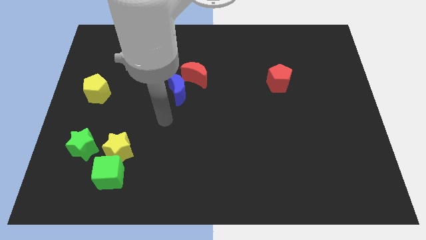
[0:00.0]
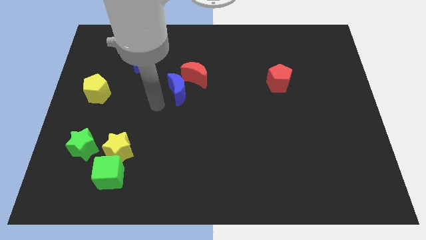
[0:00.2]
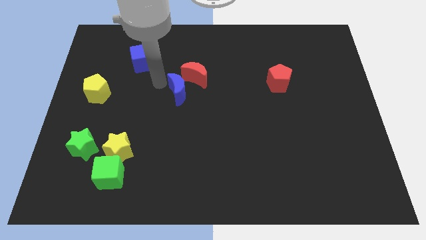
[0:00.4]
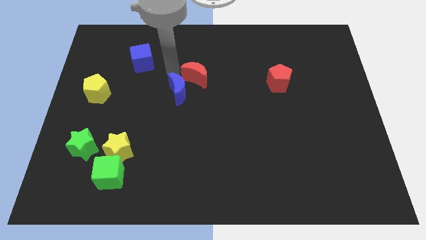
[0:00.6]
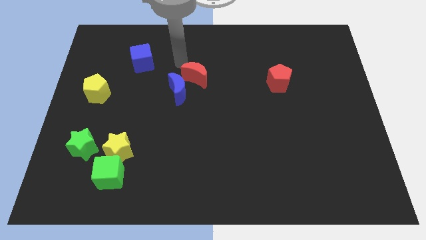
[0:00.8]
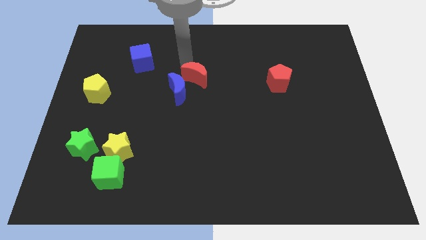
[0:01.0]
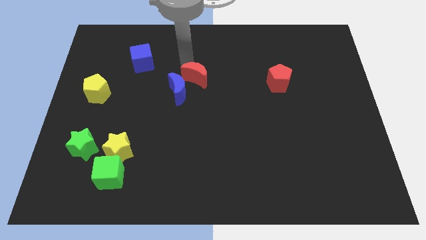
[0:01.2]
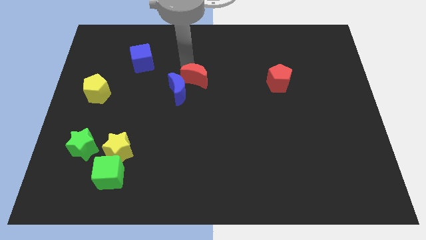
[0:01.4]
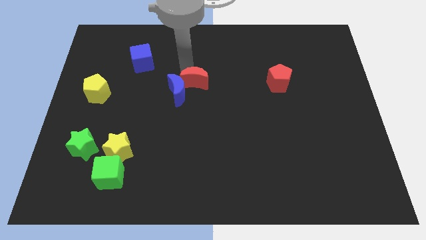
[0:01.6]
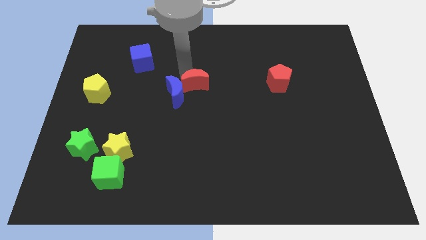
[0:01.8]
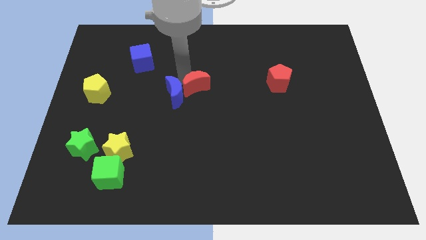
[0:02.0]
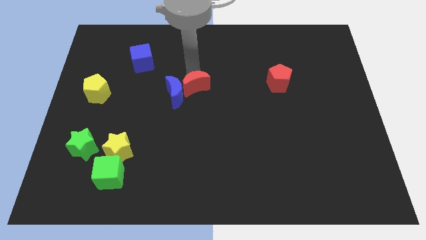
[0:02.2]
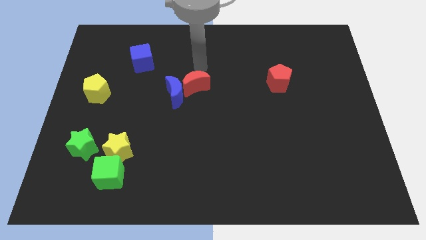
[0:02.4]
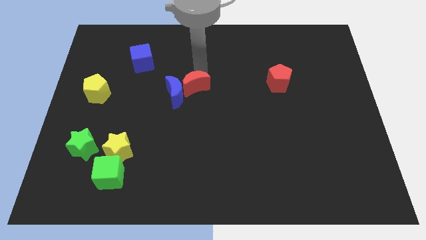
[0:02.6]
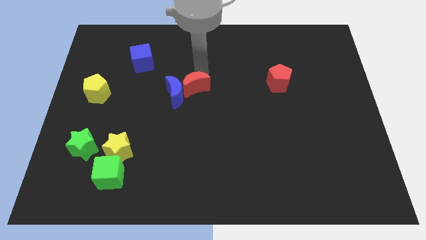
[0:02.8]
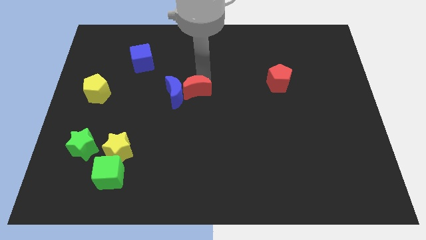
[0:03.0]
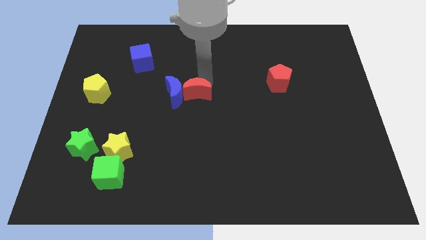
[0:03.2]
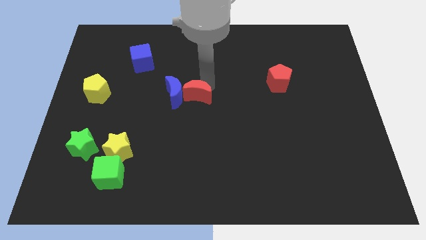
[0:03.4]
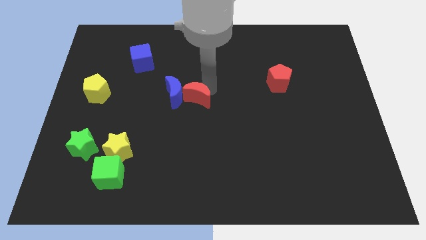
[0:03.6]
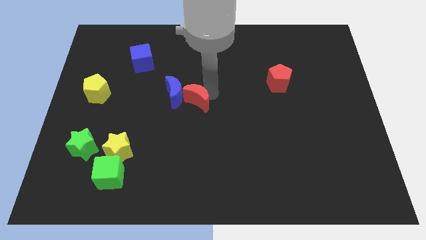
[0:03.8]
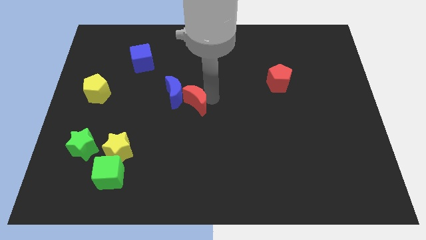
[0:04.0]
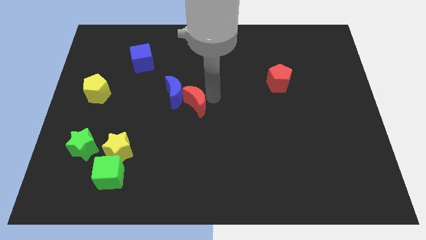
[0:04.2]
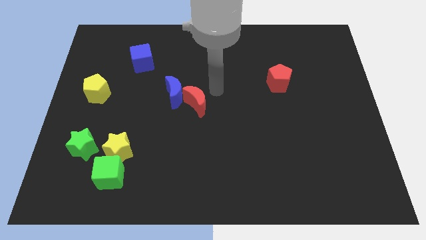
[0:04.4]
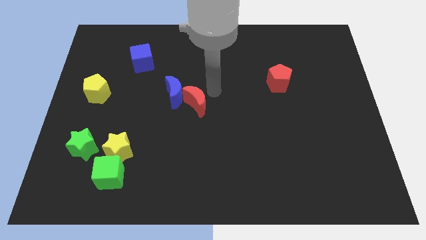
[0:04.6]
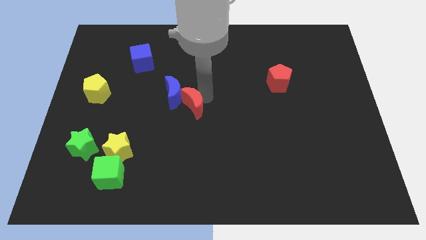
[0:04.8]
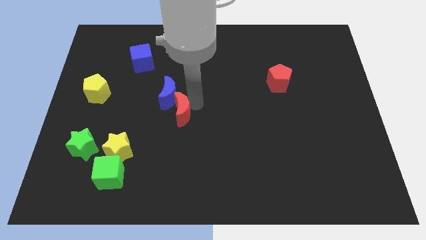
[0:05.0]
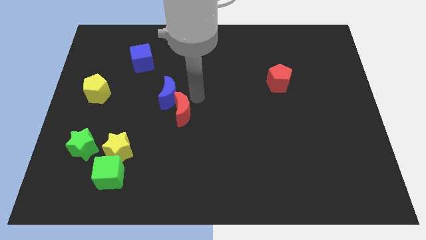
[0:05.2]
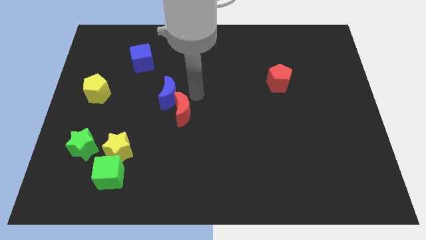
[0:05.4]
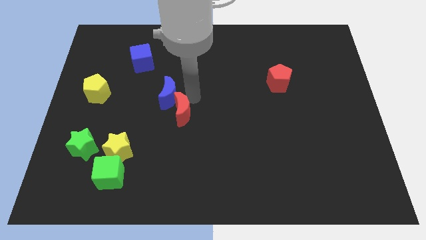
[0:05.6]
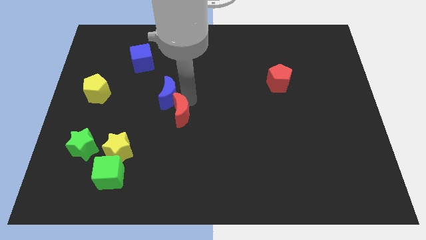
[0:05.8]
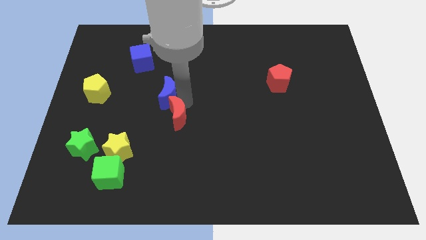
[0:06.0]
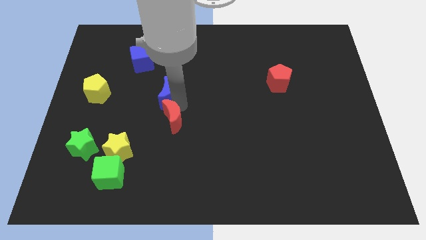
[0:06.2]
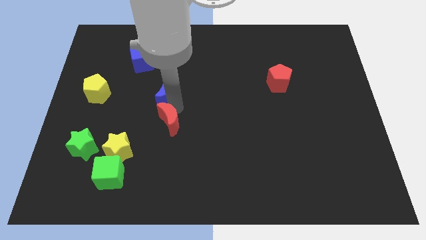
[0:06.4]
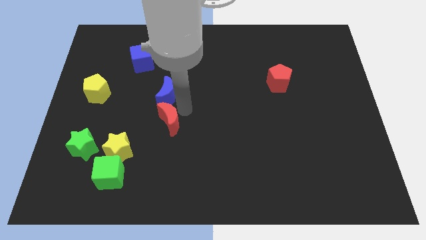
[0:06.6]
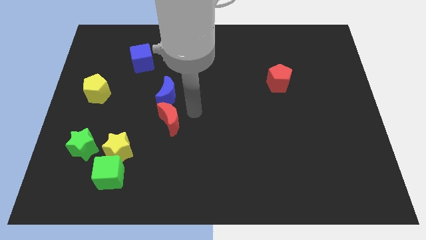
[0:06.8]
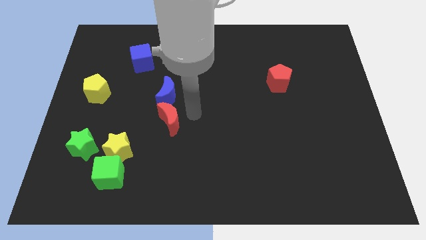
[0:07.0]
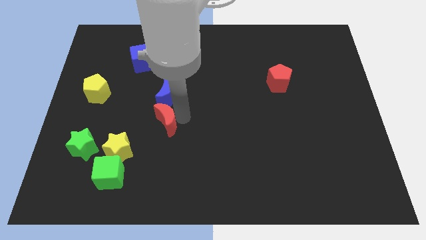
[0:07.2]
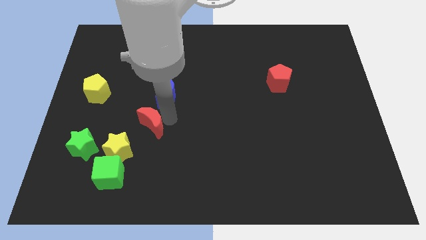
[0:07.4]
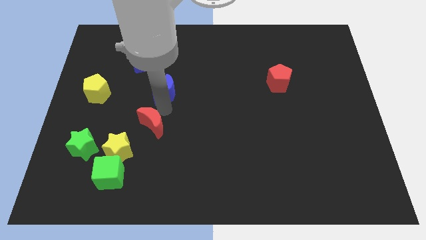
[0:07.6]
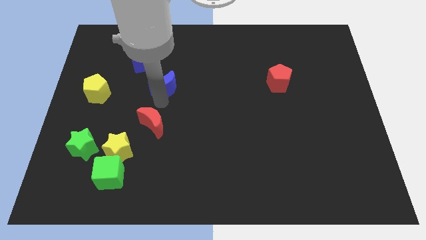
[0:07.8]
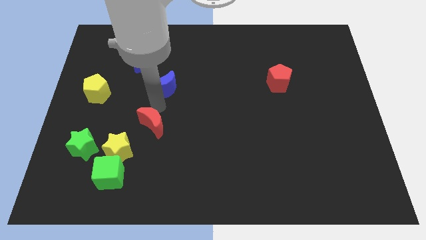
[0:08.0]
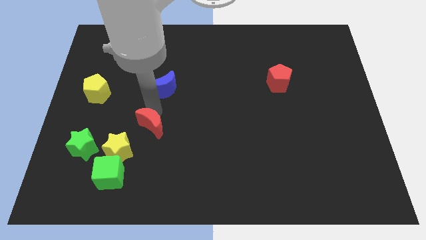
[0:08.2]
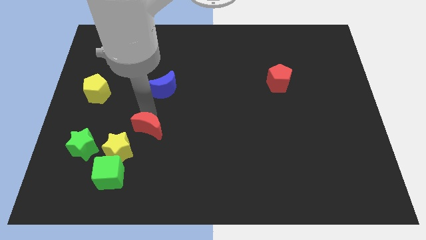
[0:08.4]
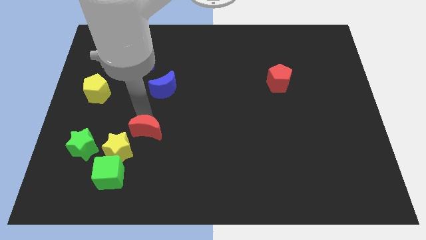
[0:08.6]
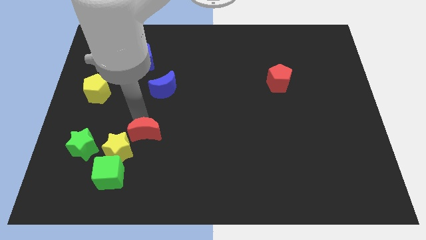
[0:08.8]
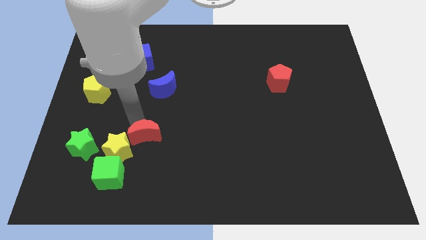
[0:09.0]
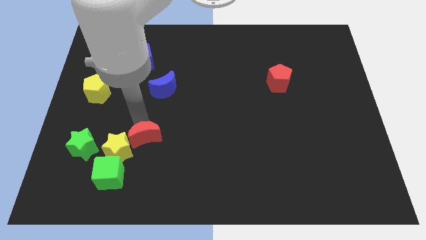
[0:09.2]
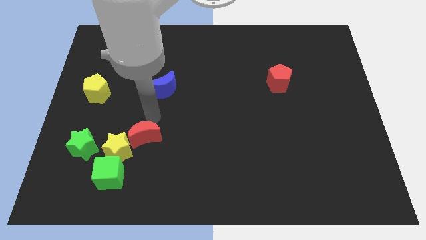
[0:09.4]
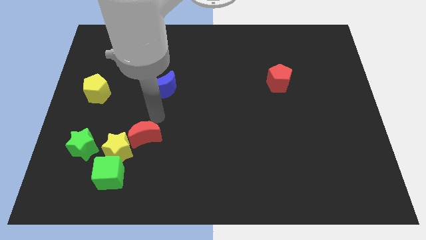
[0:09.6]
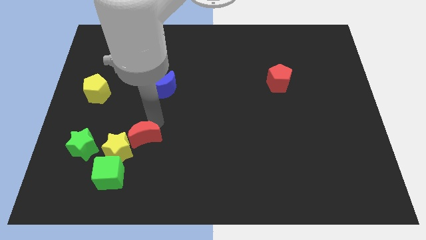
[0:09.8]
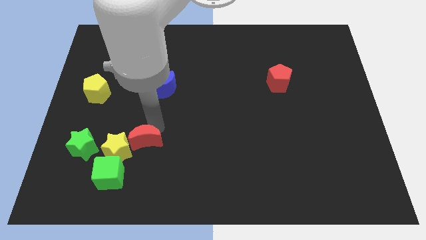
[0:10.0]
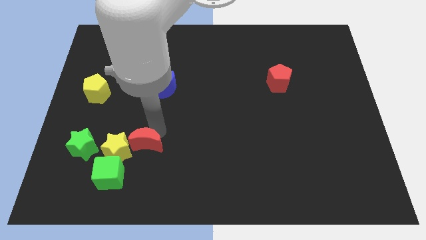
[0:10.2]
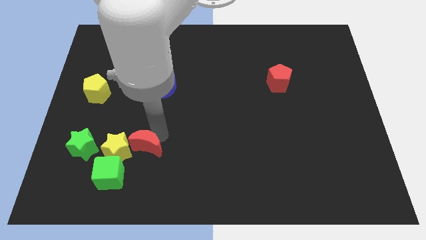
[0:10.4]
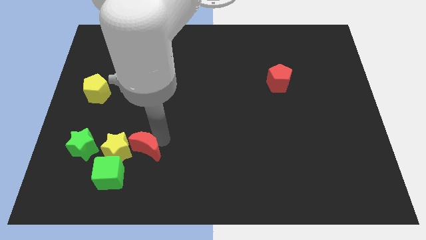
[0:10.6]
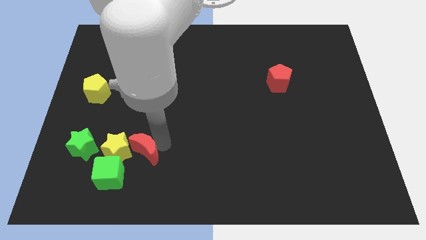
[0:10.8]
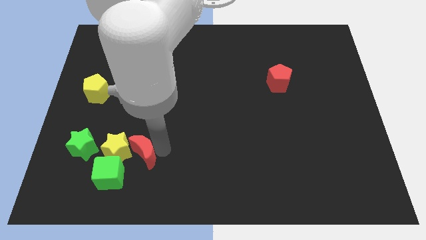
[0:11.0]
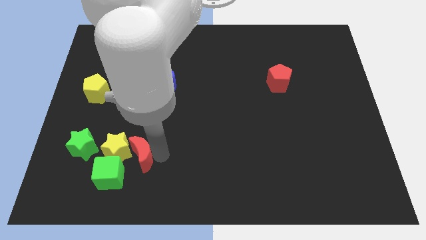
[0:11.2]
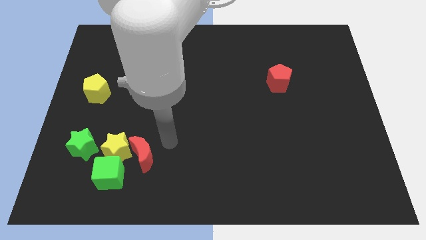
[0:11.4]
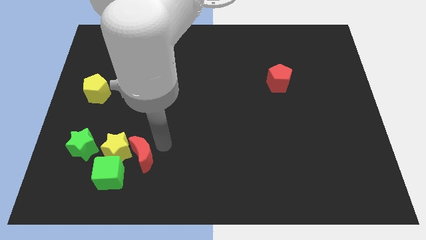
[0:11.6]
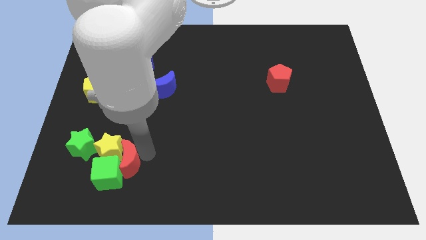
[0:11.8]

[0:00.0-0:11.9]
push the red moon close to the green cube

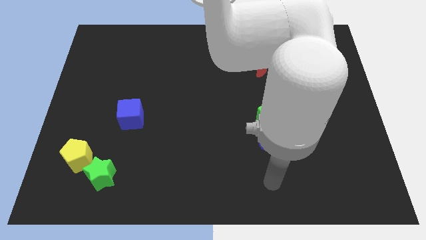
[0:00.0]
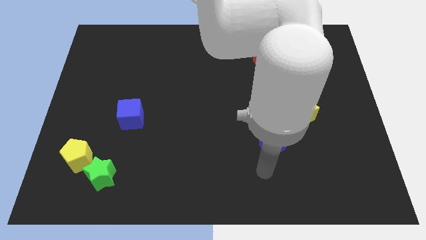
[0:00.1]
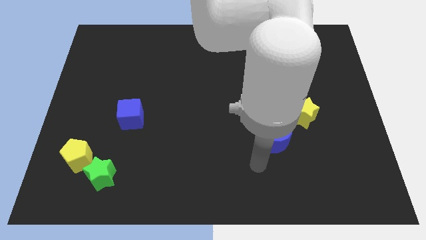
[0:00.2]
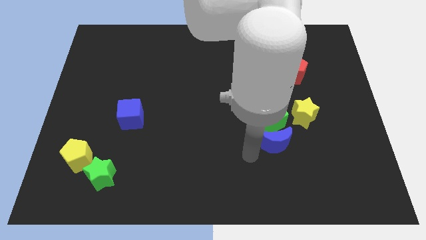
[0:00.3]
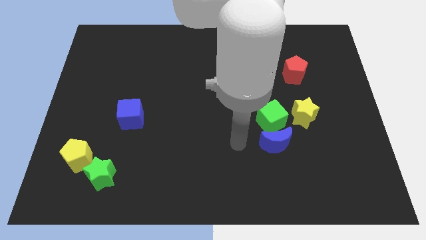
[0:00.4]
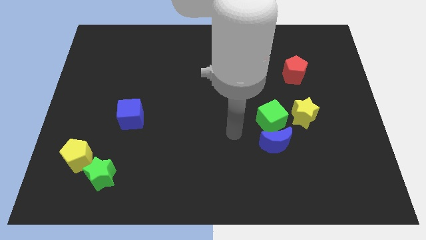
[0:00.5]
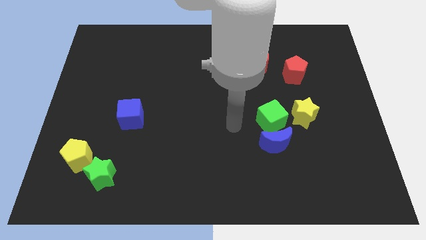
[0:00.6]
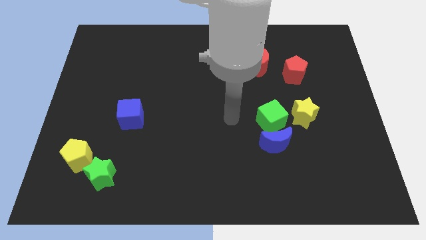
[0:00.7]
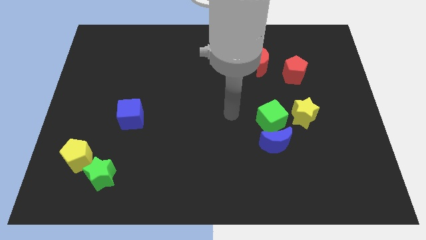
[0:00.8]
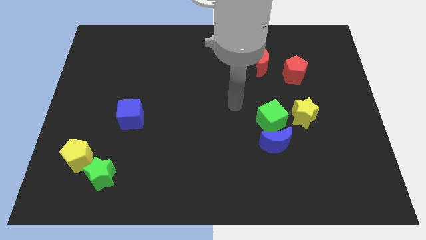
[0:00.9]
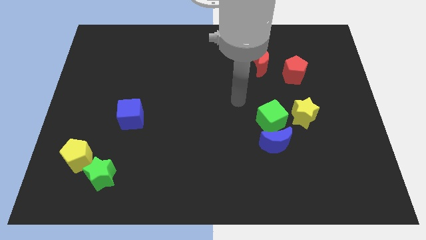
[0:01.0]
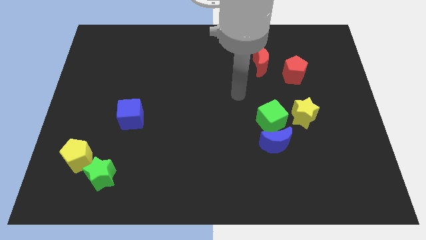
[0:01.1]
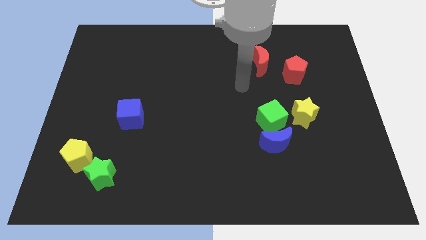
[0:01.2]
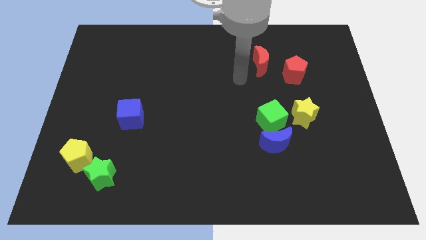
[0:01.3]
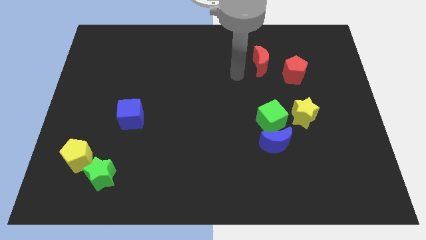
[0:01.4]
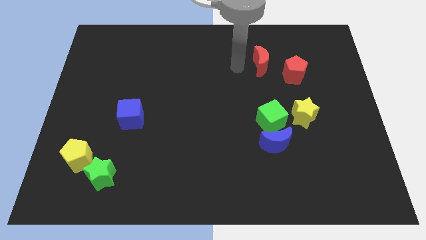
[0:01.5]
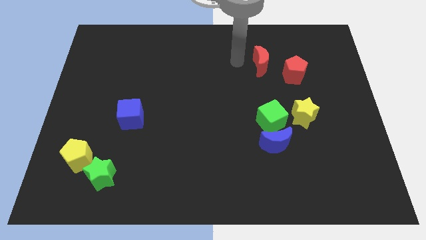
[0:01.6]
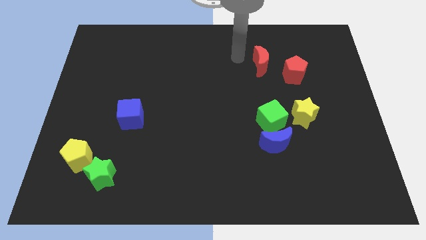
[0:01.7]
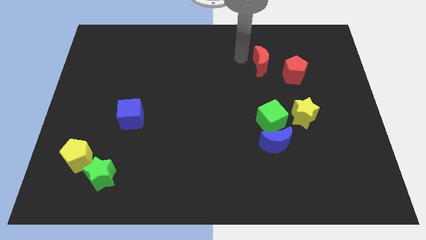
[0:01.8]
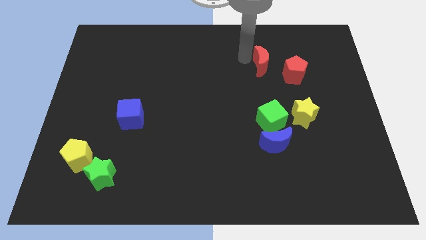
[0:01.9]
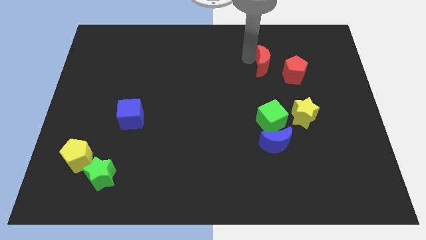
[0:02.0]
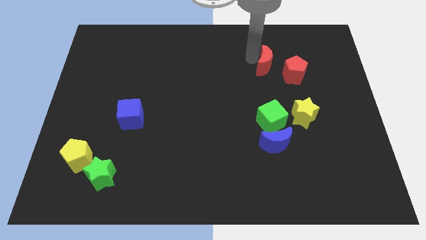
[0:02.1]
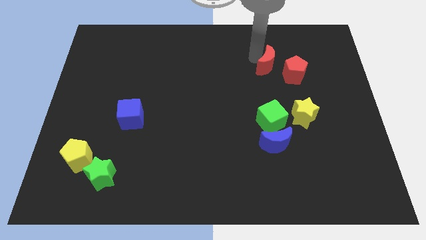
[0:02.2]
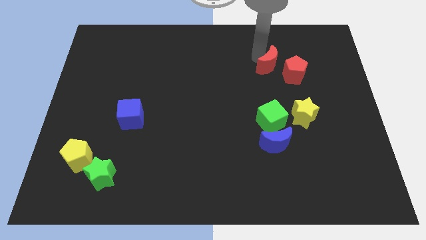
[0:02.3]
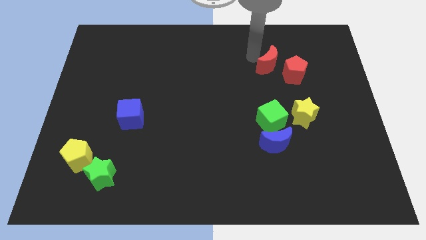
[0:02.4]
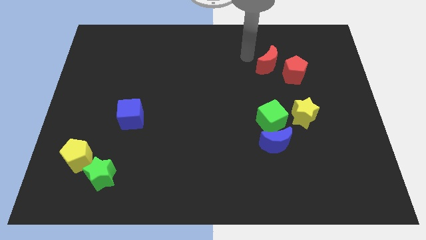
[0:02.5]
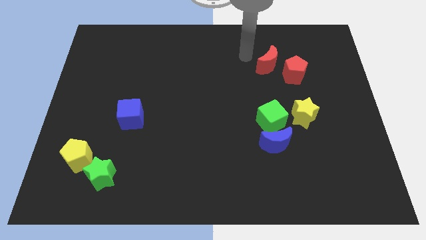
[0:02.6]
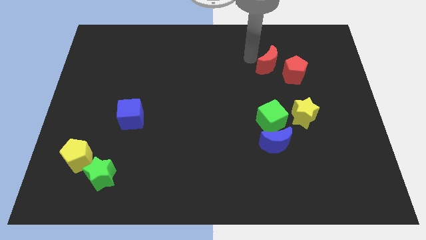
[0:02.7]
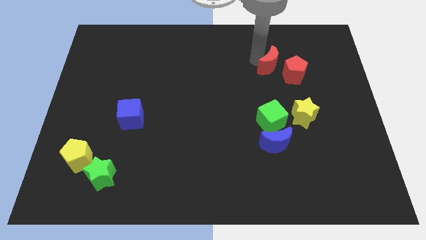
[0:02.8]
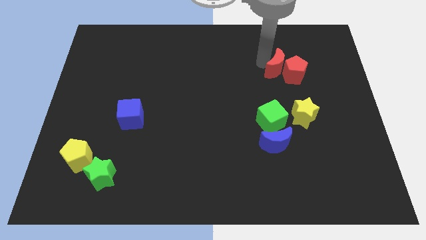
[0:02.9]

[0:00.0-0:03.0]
put the red moon towards the red pentagon
